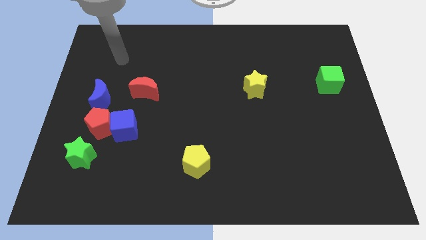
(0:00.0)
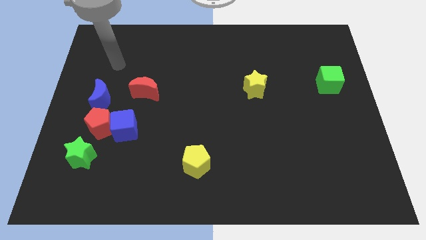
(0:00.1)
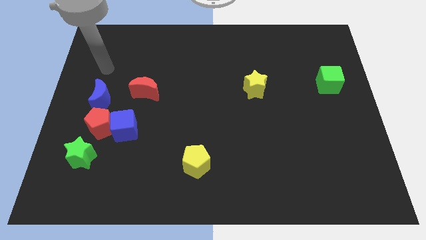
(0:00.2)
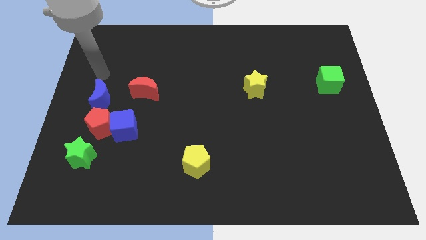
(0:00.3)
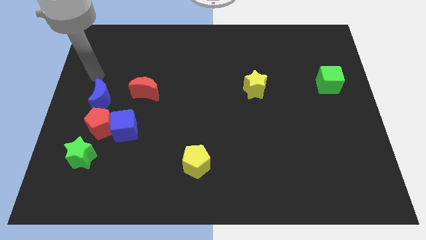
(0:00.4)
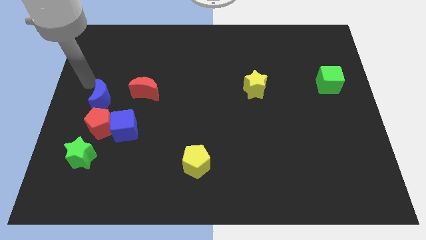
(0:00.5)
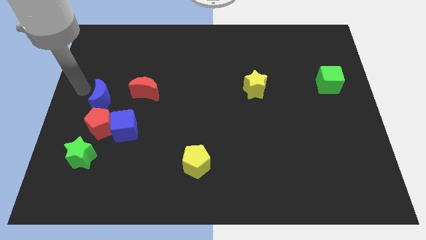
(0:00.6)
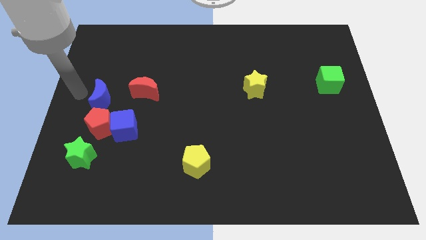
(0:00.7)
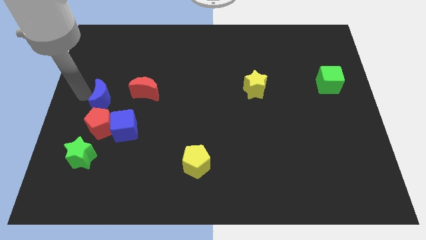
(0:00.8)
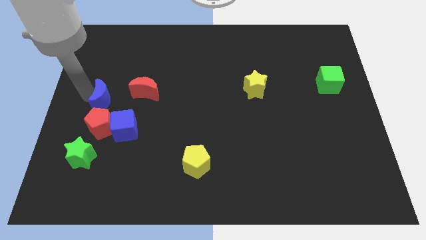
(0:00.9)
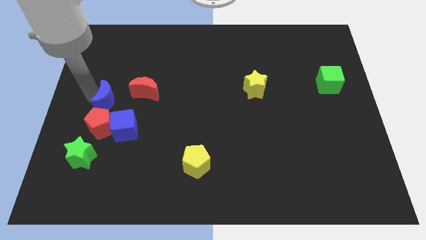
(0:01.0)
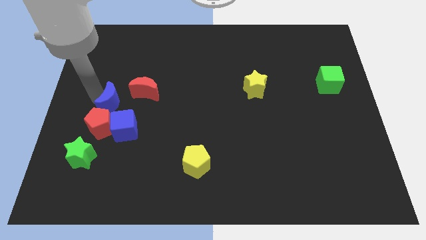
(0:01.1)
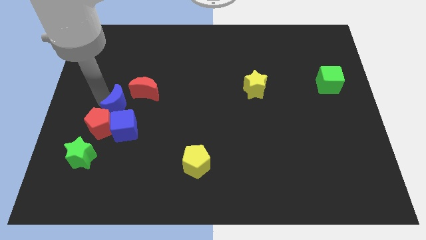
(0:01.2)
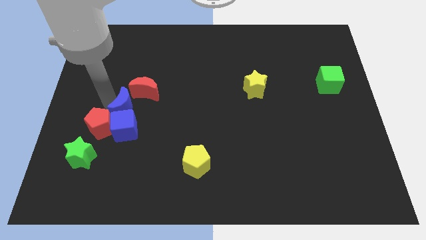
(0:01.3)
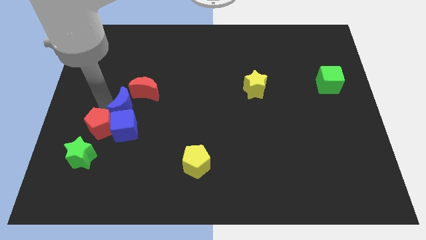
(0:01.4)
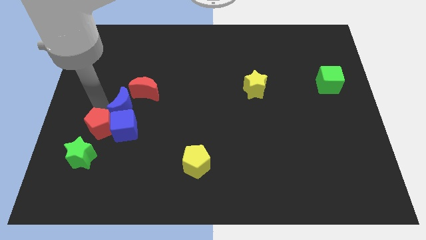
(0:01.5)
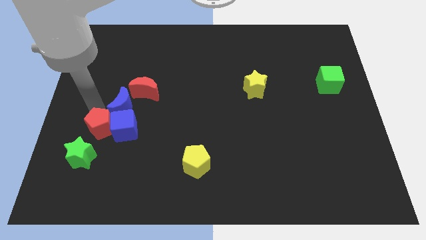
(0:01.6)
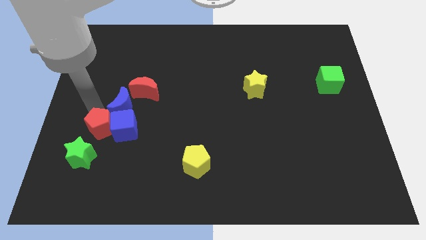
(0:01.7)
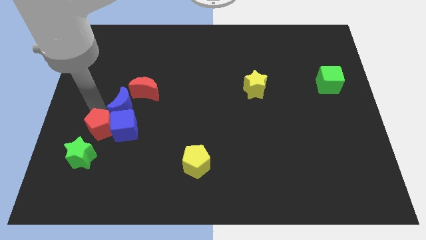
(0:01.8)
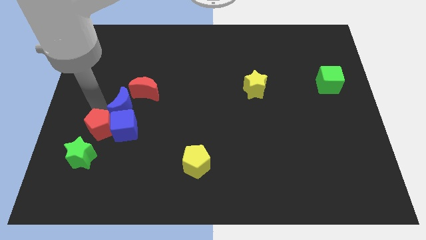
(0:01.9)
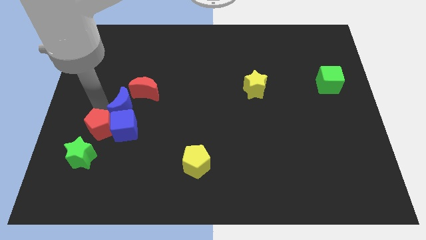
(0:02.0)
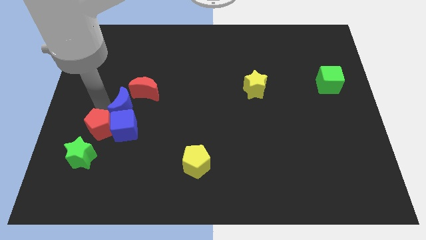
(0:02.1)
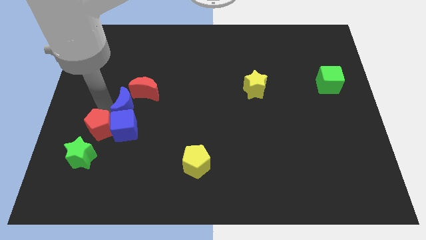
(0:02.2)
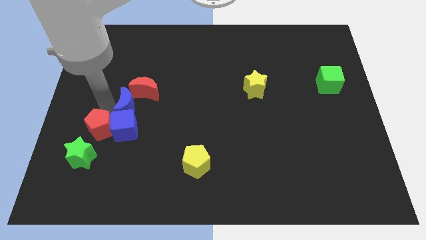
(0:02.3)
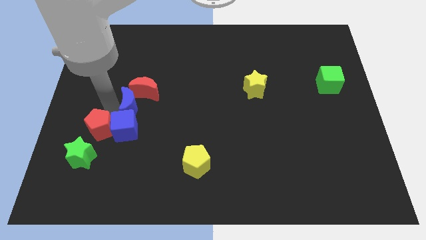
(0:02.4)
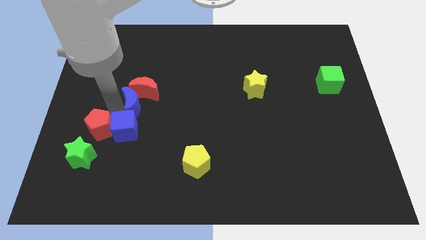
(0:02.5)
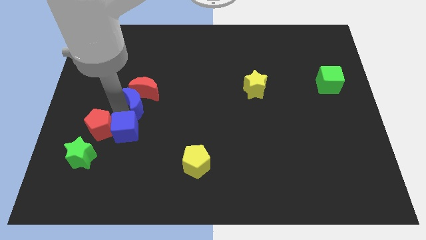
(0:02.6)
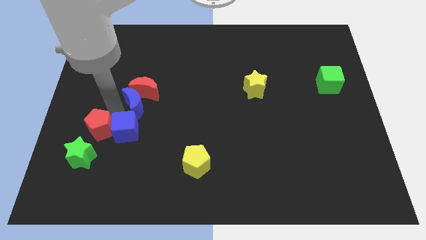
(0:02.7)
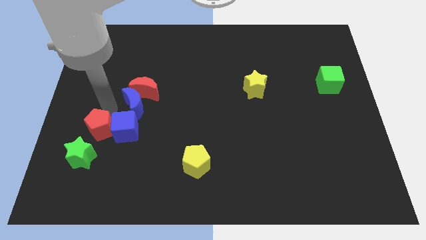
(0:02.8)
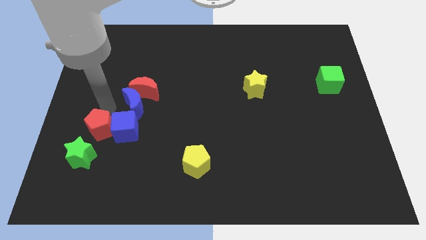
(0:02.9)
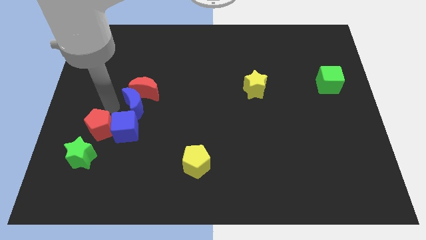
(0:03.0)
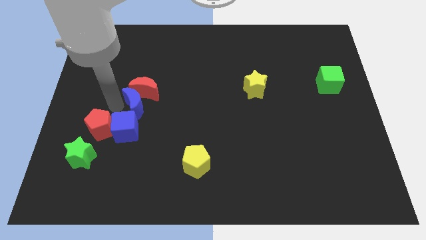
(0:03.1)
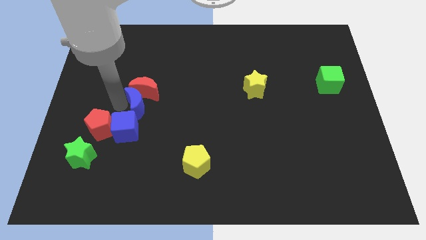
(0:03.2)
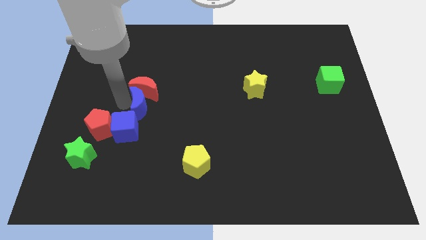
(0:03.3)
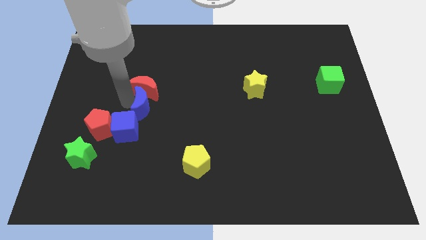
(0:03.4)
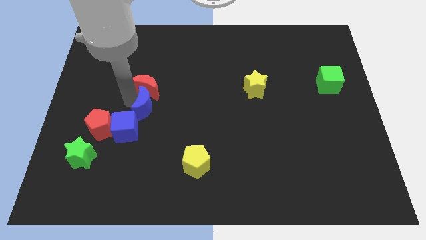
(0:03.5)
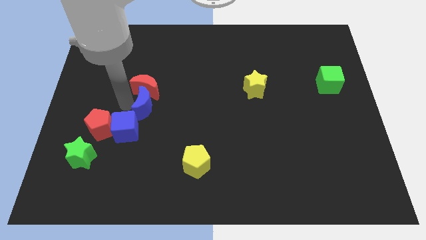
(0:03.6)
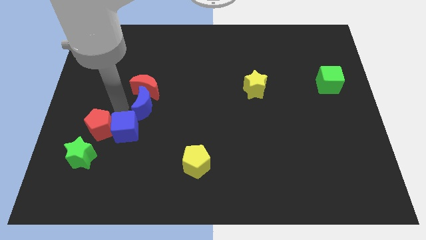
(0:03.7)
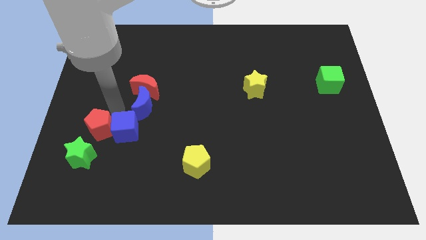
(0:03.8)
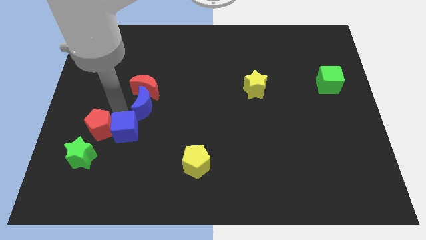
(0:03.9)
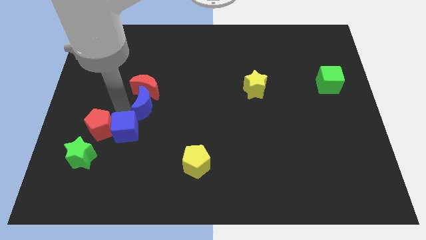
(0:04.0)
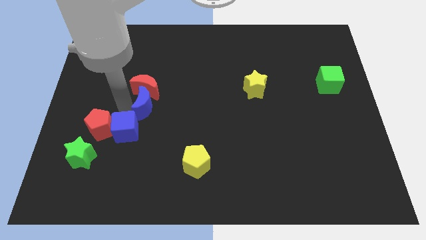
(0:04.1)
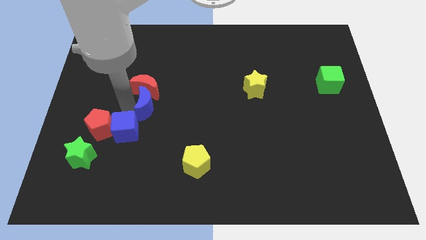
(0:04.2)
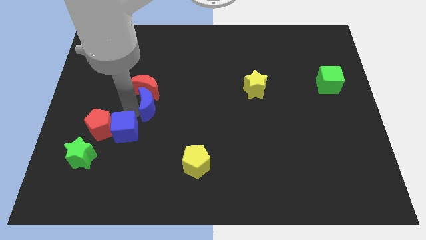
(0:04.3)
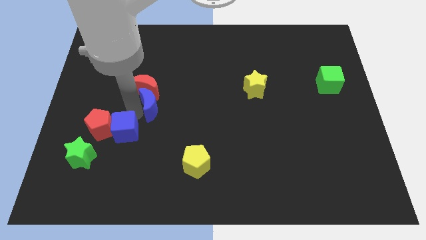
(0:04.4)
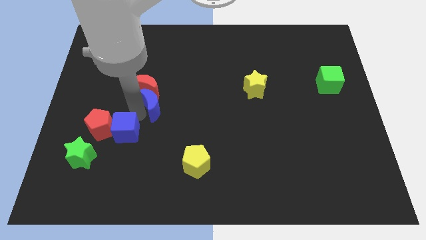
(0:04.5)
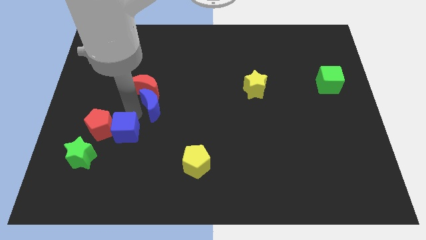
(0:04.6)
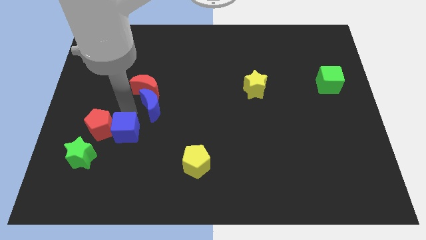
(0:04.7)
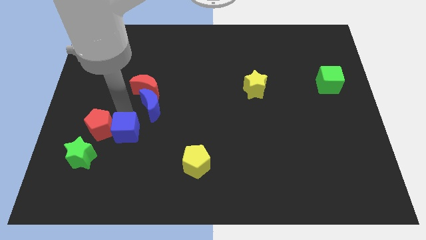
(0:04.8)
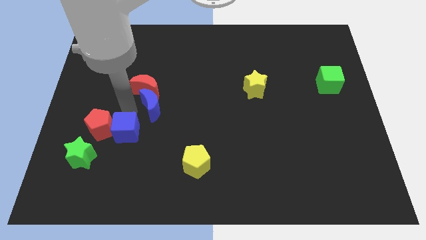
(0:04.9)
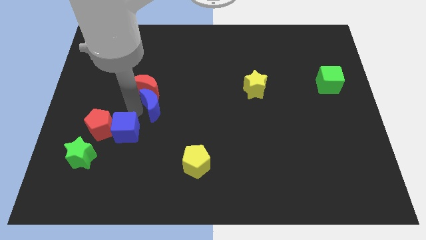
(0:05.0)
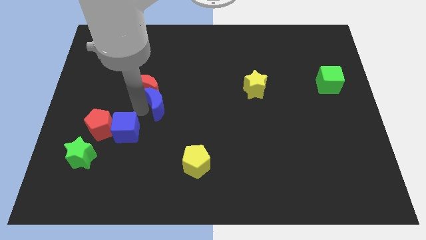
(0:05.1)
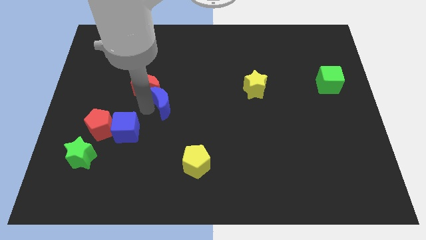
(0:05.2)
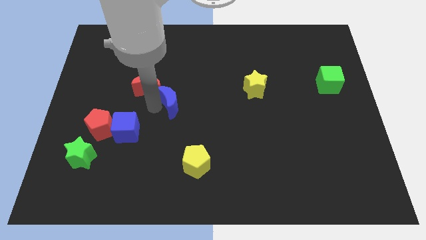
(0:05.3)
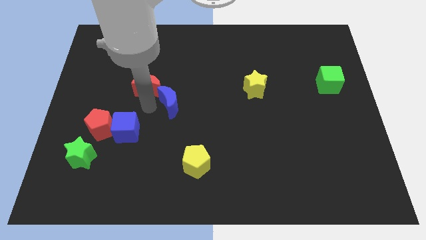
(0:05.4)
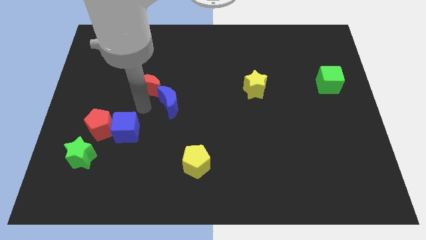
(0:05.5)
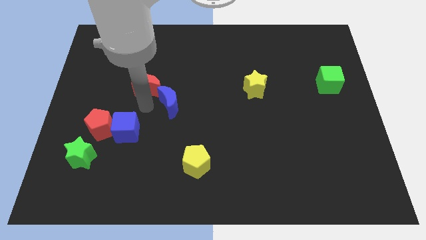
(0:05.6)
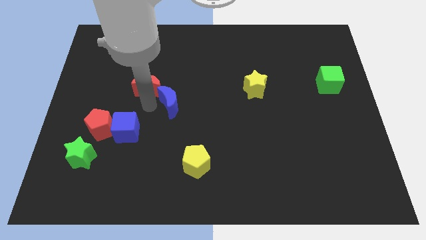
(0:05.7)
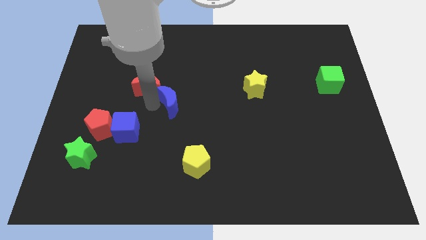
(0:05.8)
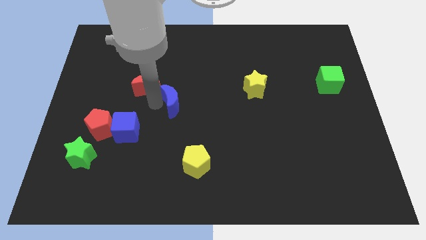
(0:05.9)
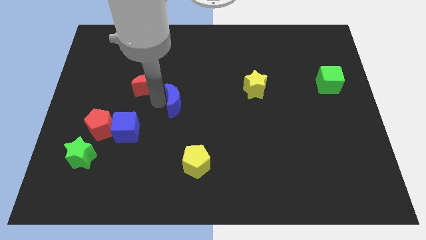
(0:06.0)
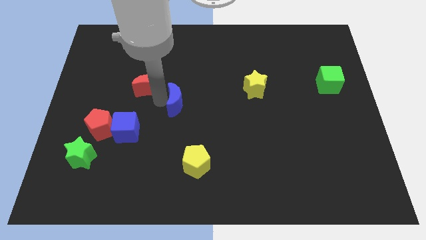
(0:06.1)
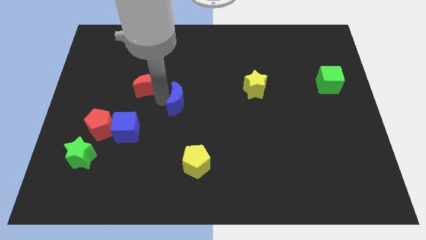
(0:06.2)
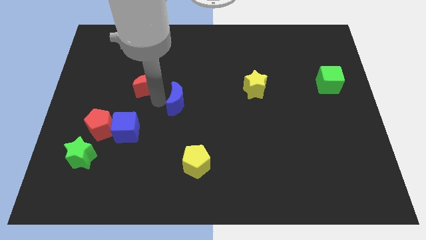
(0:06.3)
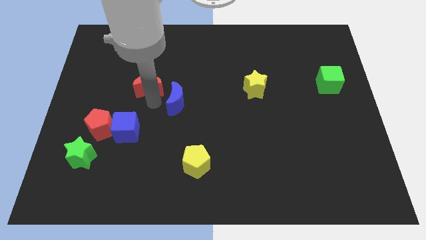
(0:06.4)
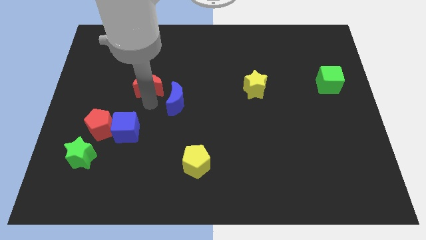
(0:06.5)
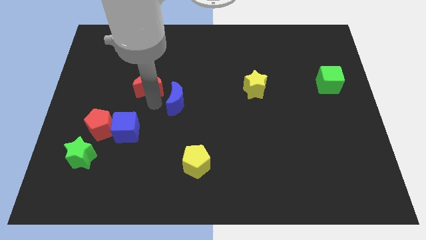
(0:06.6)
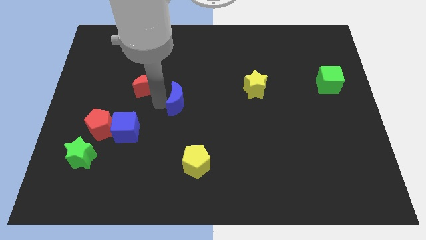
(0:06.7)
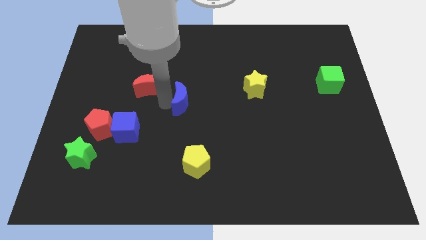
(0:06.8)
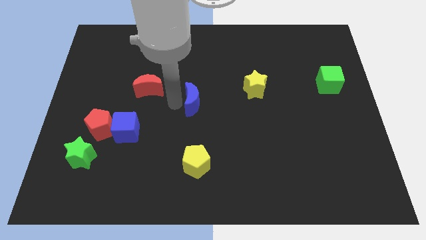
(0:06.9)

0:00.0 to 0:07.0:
slide the blue moon right

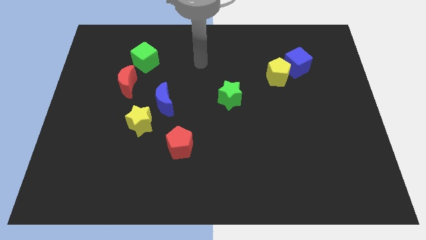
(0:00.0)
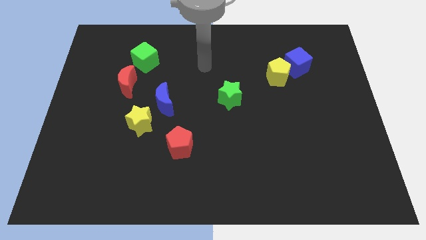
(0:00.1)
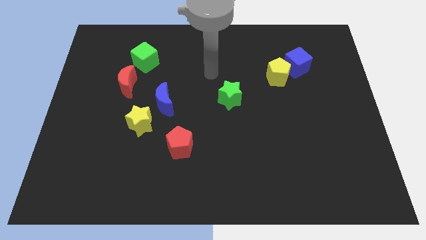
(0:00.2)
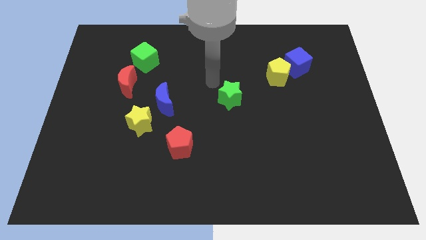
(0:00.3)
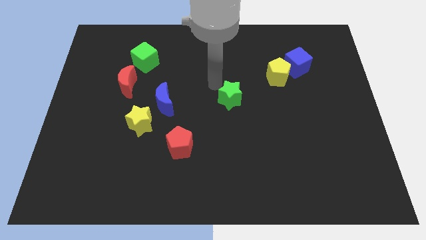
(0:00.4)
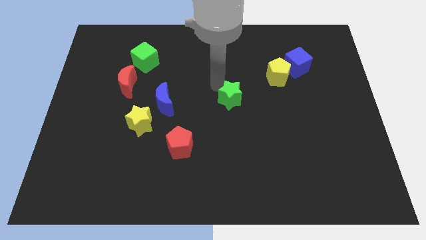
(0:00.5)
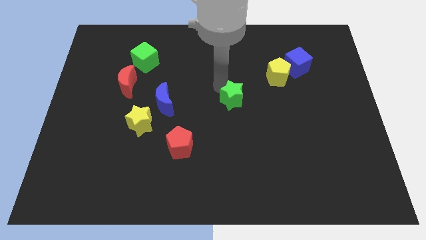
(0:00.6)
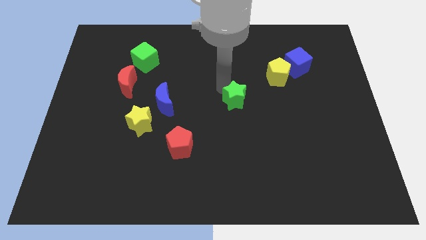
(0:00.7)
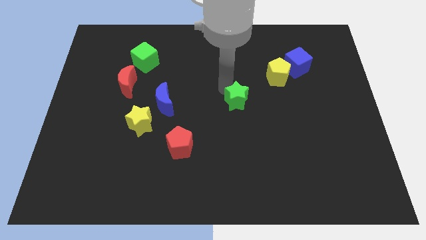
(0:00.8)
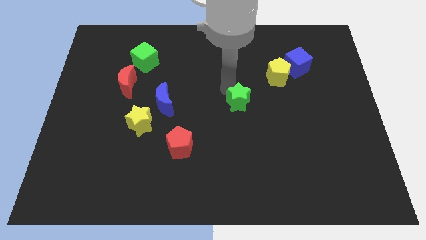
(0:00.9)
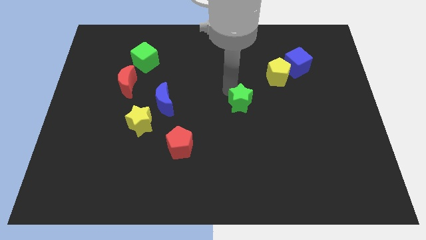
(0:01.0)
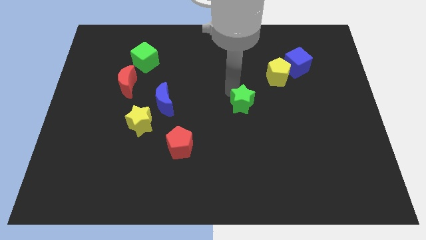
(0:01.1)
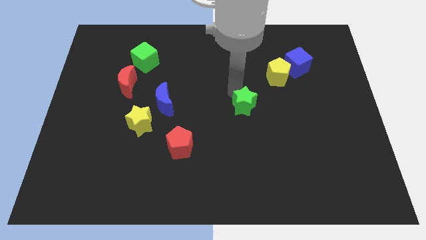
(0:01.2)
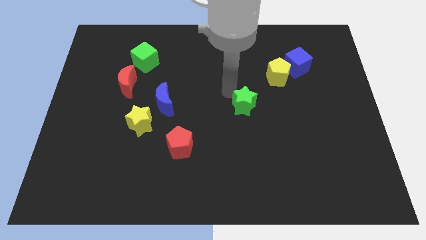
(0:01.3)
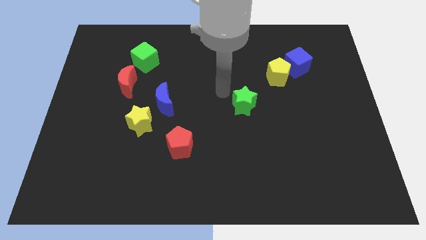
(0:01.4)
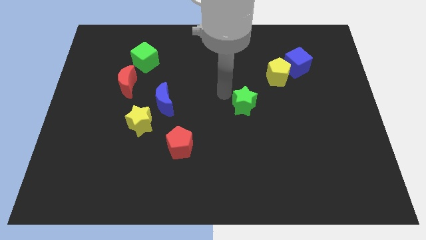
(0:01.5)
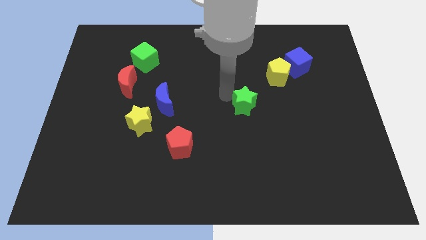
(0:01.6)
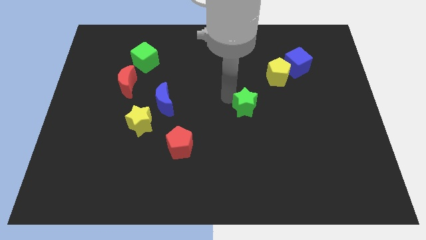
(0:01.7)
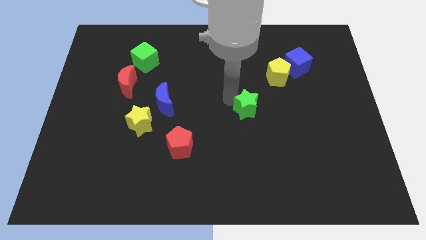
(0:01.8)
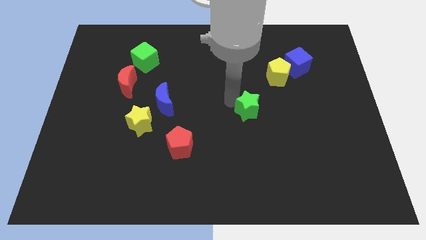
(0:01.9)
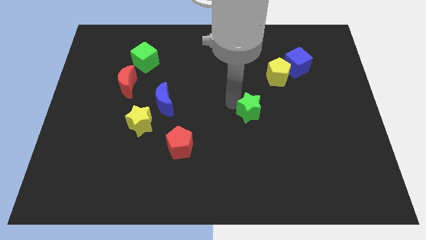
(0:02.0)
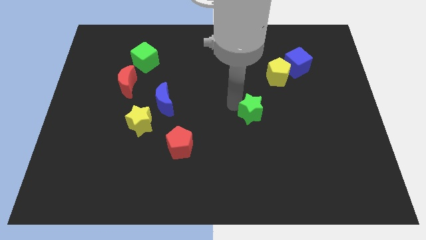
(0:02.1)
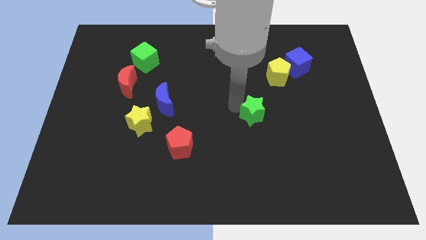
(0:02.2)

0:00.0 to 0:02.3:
push the green star somewhat downwards and right diagonally
